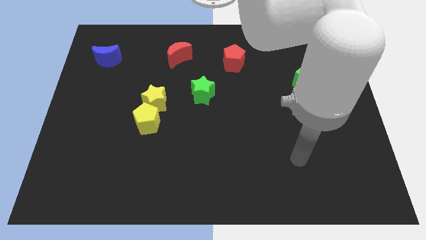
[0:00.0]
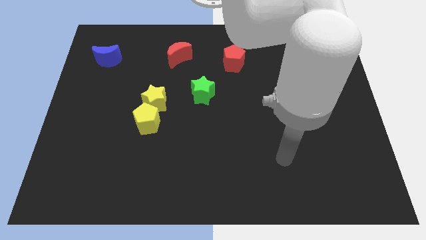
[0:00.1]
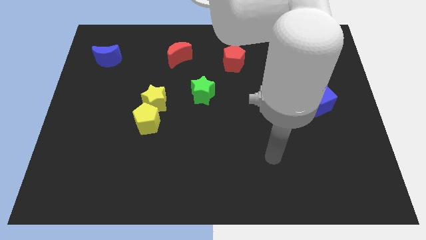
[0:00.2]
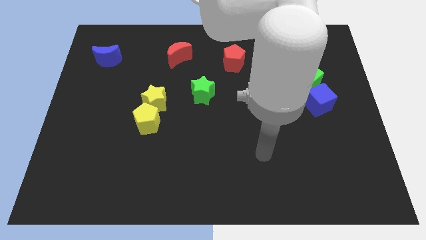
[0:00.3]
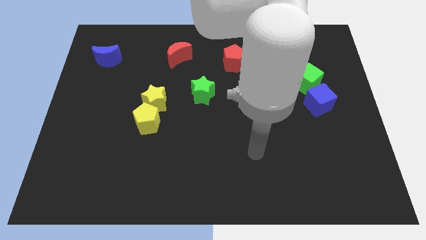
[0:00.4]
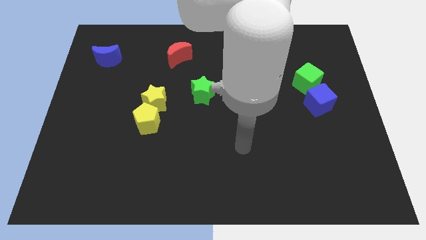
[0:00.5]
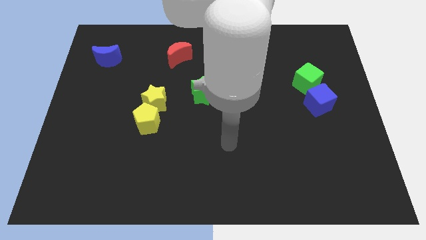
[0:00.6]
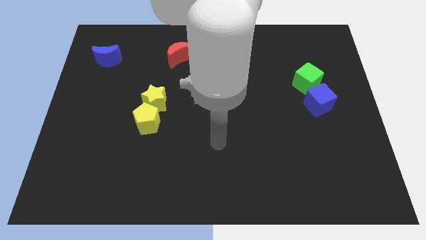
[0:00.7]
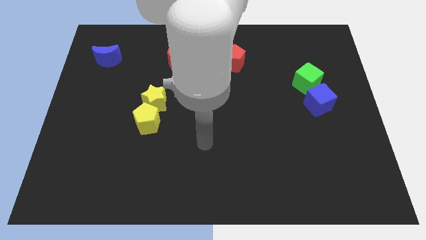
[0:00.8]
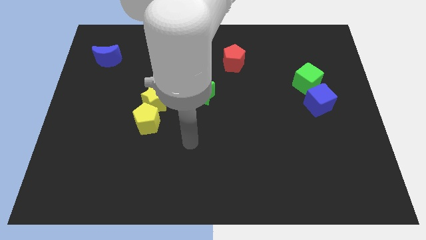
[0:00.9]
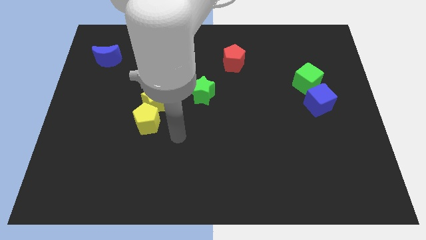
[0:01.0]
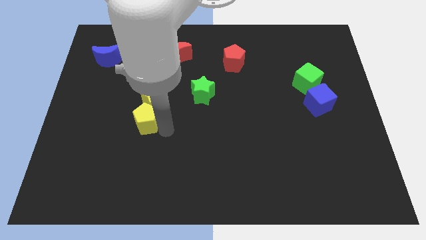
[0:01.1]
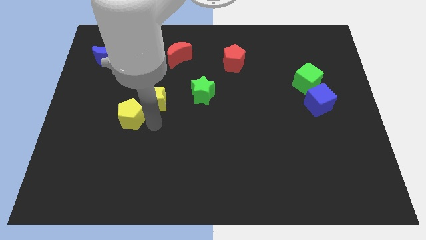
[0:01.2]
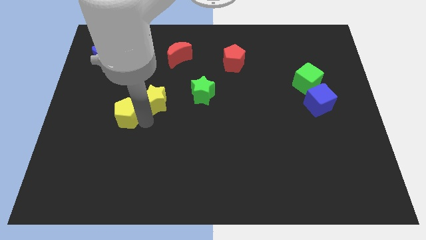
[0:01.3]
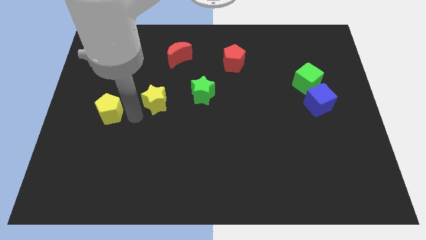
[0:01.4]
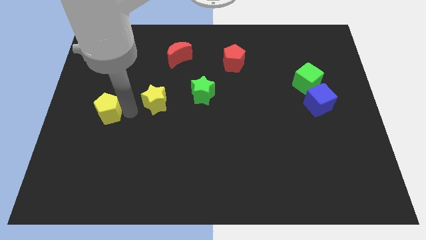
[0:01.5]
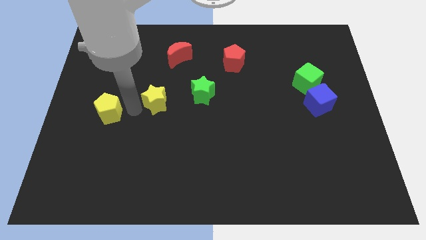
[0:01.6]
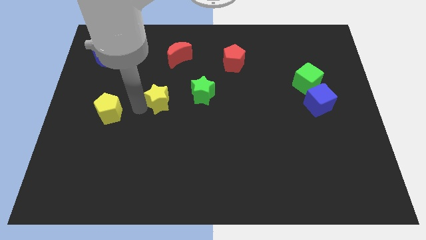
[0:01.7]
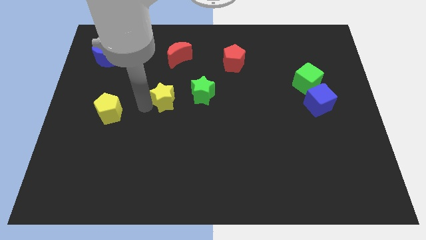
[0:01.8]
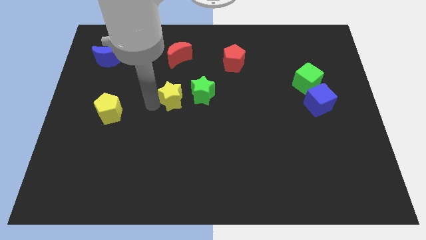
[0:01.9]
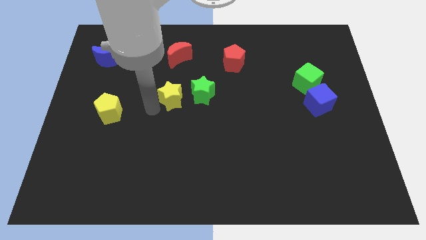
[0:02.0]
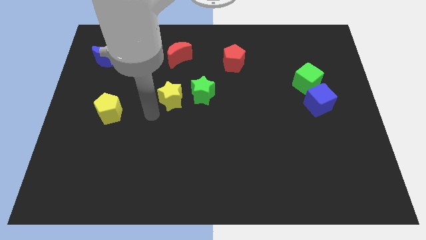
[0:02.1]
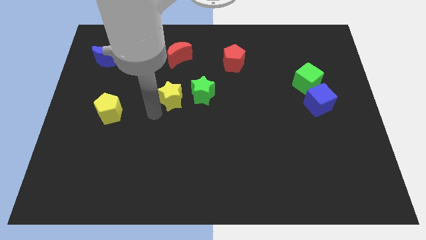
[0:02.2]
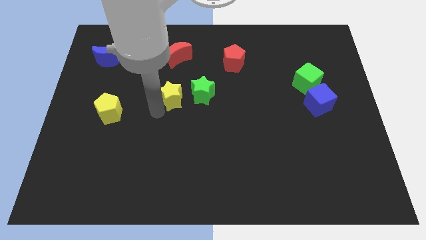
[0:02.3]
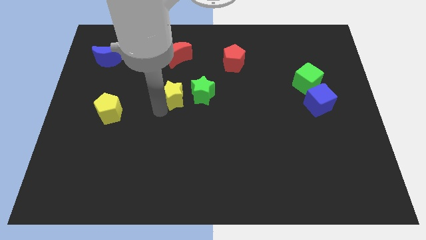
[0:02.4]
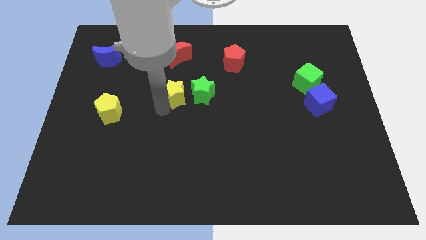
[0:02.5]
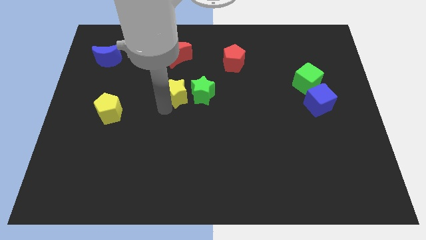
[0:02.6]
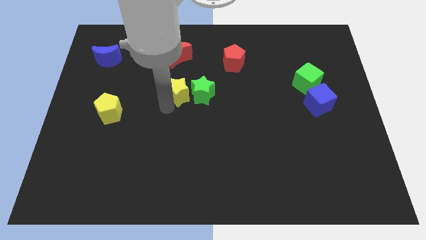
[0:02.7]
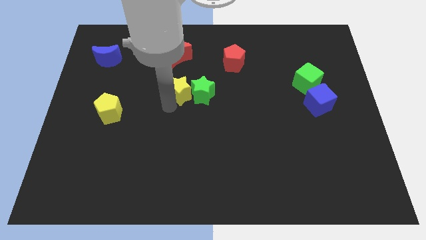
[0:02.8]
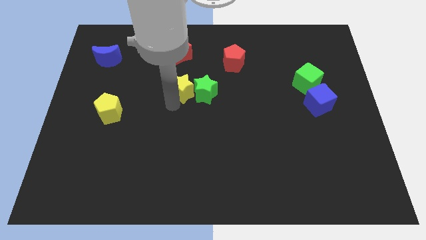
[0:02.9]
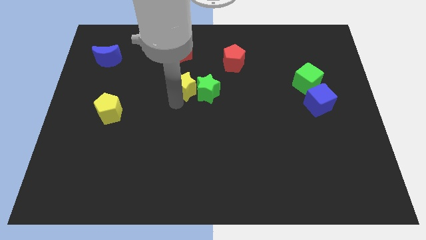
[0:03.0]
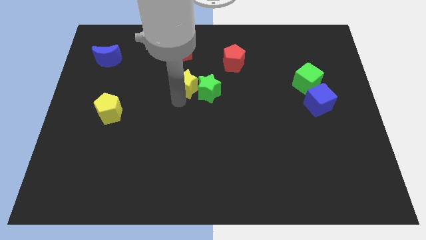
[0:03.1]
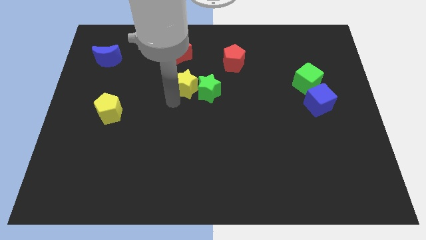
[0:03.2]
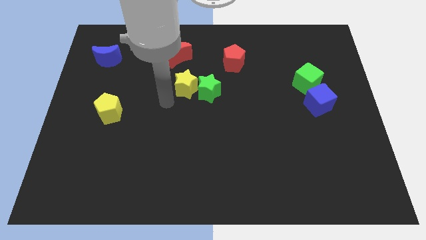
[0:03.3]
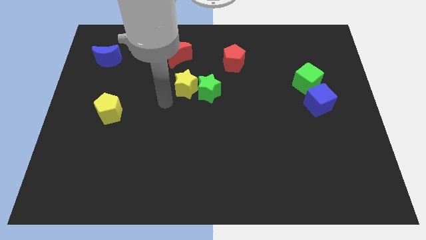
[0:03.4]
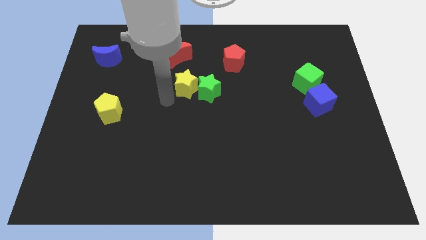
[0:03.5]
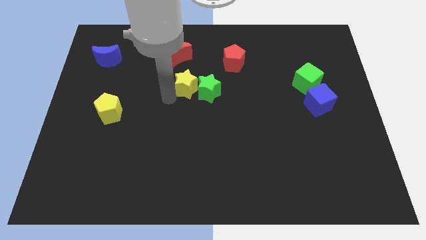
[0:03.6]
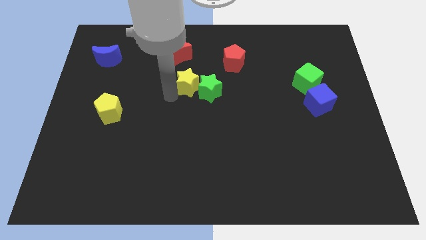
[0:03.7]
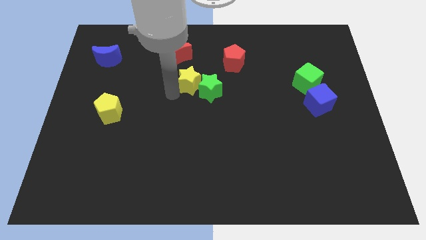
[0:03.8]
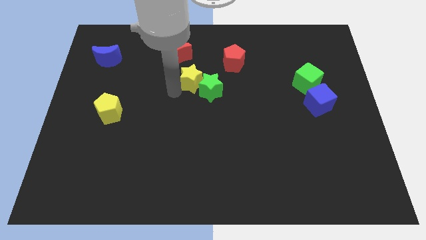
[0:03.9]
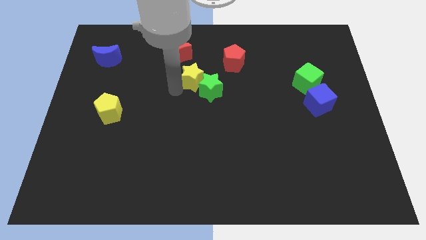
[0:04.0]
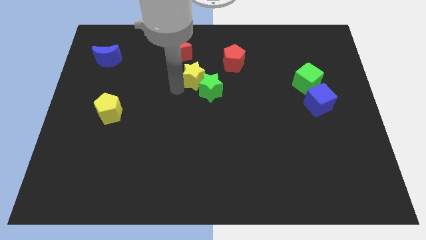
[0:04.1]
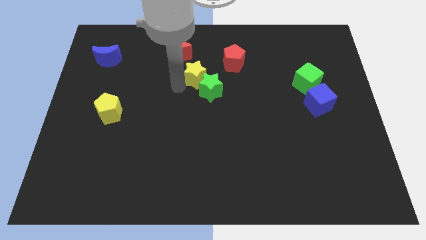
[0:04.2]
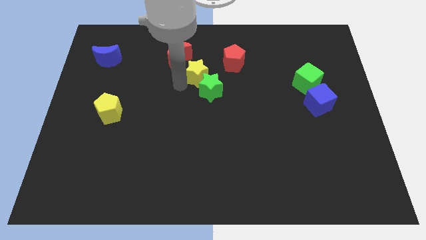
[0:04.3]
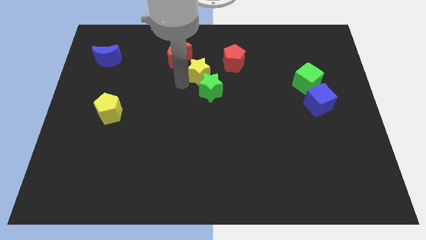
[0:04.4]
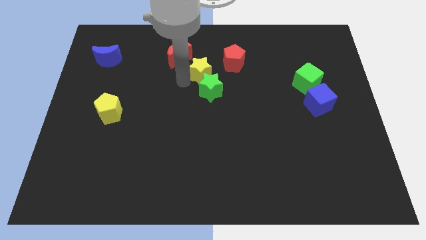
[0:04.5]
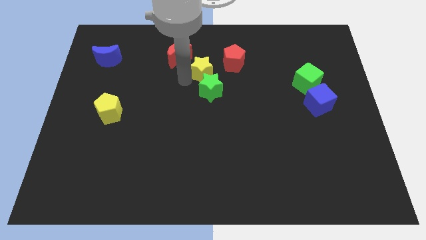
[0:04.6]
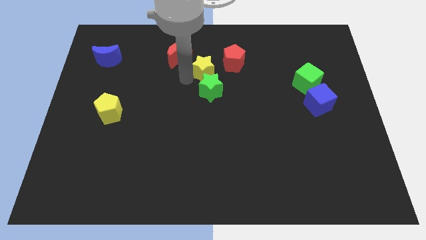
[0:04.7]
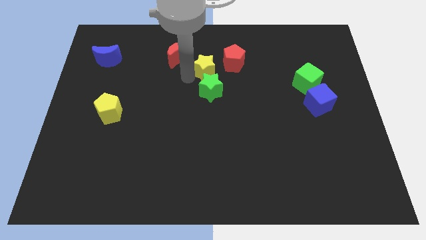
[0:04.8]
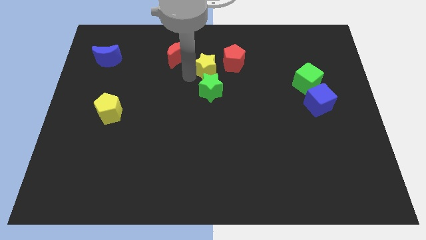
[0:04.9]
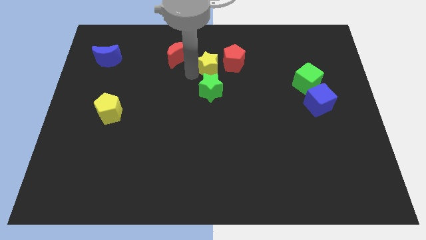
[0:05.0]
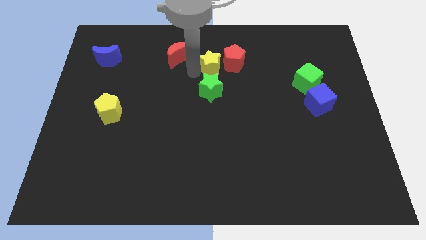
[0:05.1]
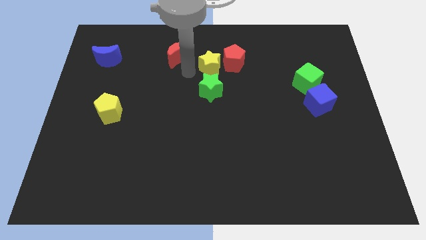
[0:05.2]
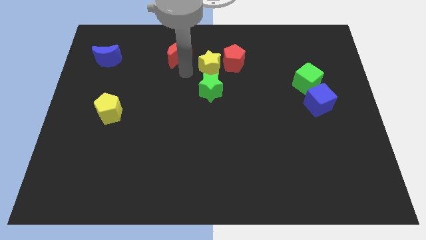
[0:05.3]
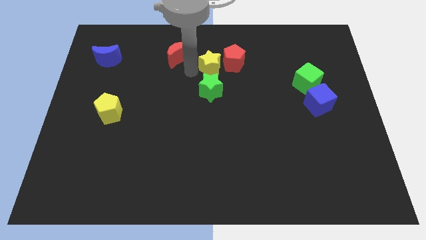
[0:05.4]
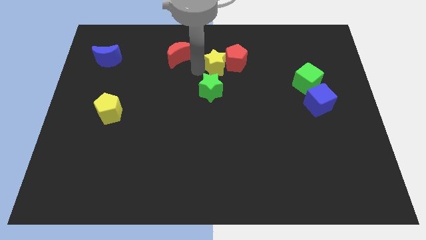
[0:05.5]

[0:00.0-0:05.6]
push the yellow star close to the red pentagon

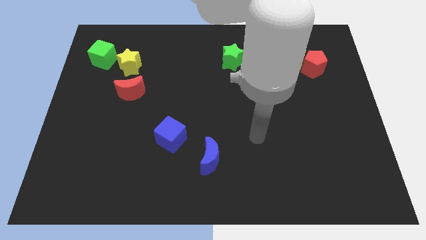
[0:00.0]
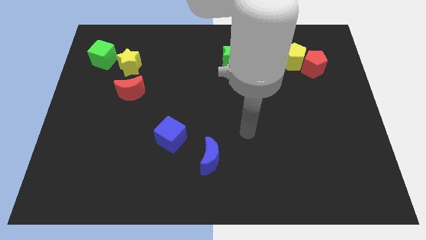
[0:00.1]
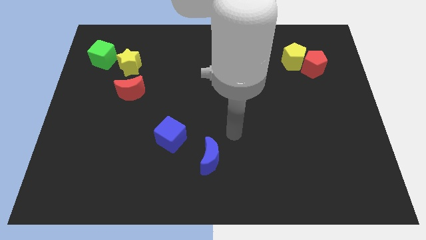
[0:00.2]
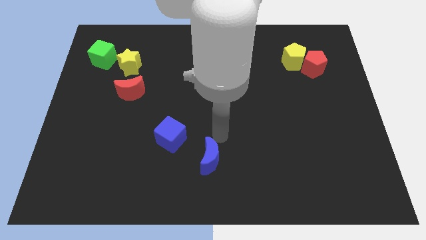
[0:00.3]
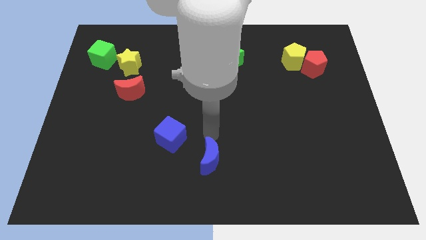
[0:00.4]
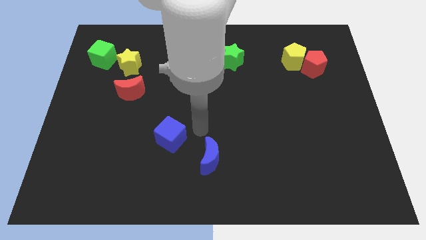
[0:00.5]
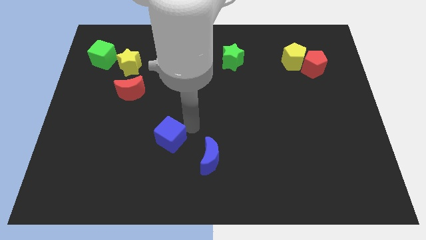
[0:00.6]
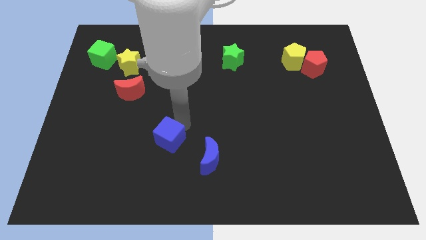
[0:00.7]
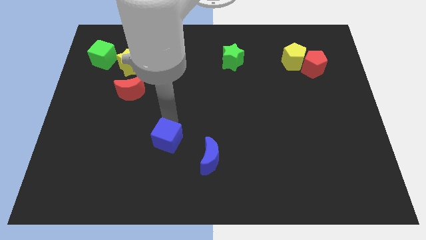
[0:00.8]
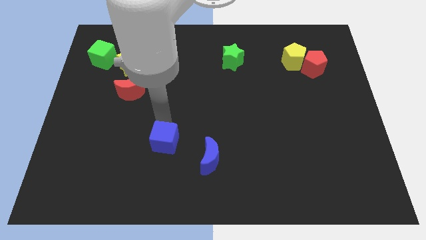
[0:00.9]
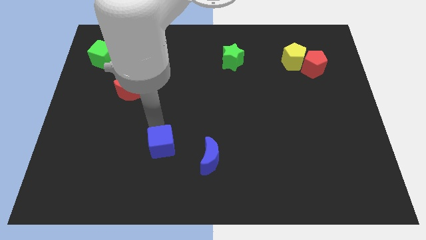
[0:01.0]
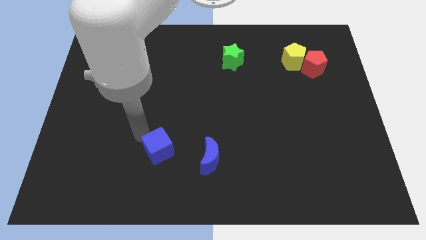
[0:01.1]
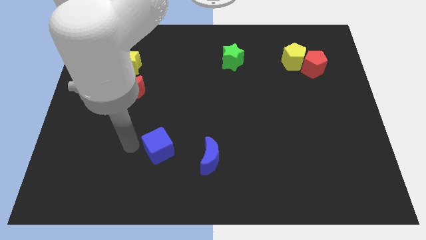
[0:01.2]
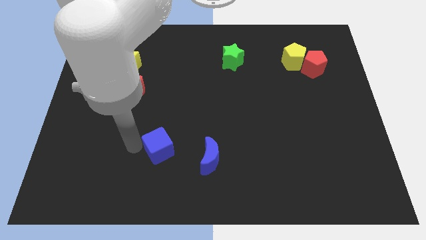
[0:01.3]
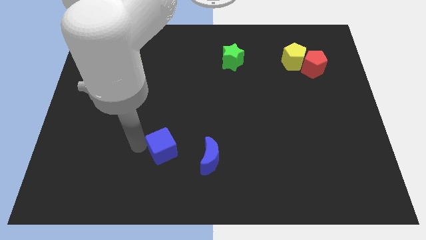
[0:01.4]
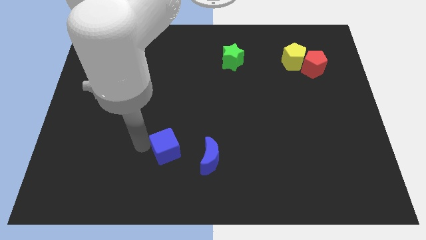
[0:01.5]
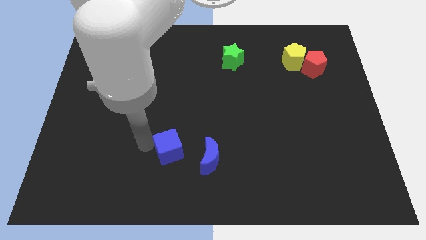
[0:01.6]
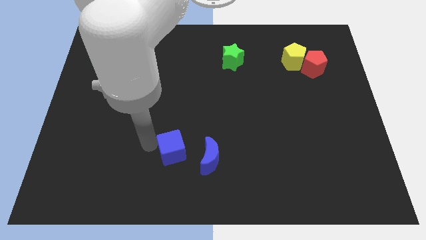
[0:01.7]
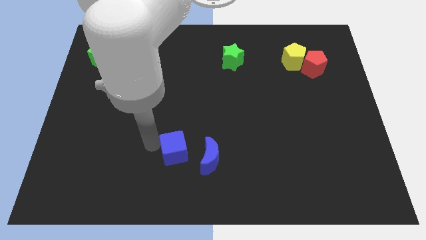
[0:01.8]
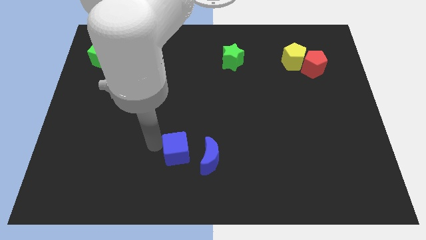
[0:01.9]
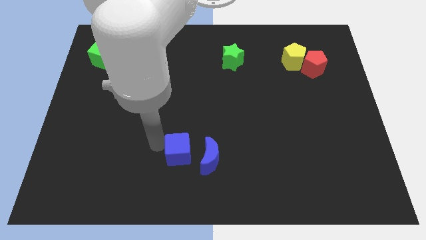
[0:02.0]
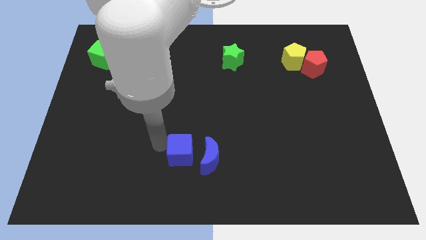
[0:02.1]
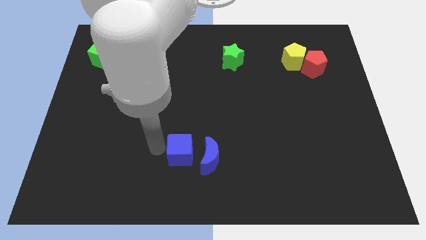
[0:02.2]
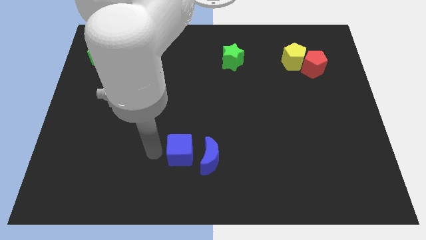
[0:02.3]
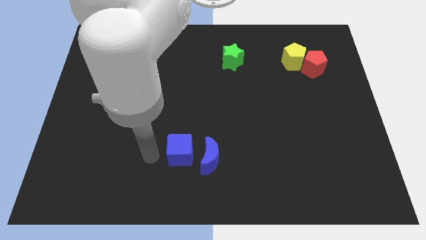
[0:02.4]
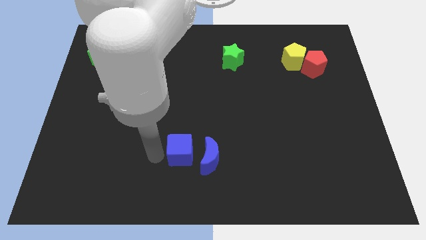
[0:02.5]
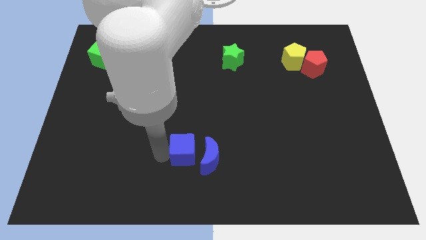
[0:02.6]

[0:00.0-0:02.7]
move the blue cube to the blue moon
